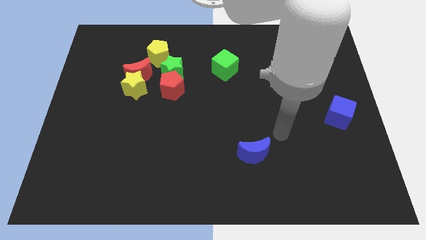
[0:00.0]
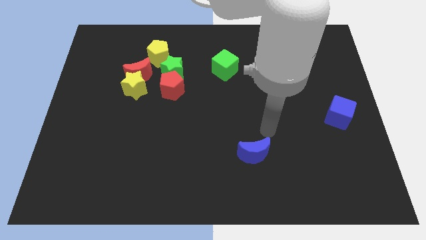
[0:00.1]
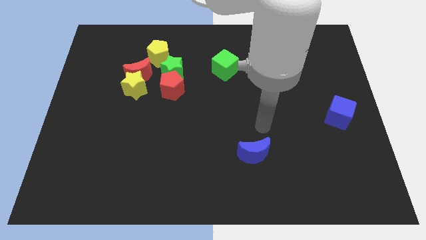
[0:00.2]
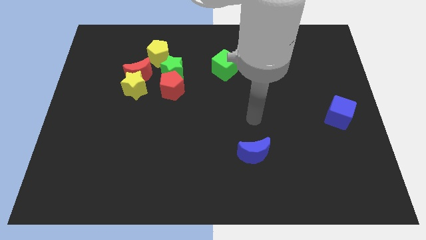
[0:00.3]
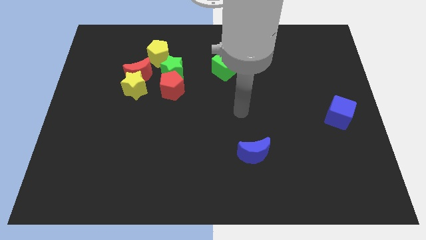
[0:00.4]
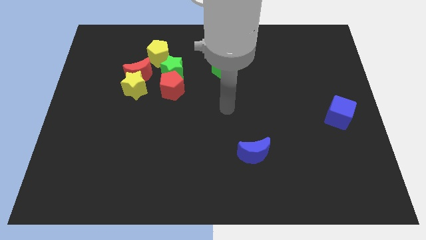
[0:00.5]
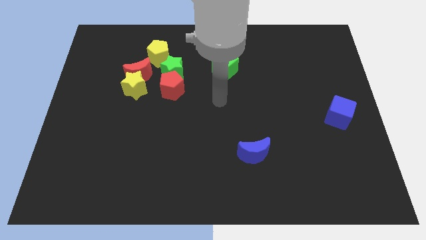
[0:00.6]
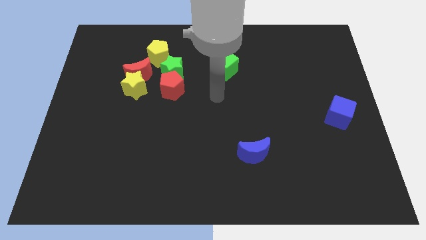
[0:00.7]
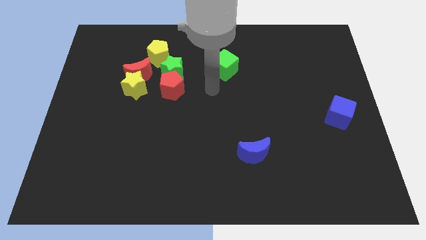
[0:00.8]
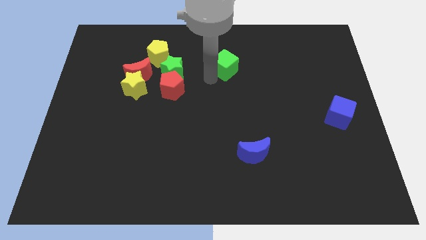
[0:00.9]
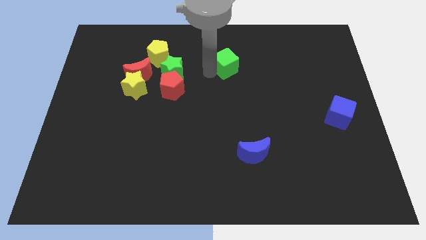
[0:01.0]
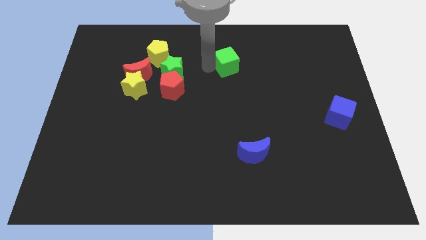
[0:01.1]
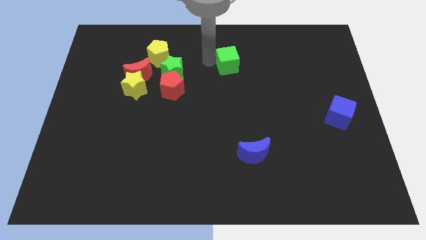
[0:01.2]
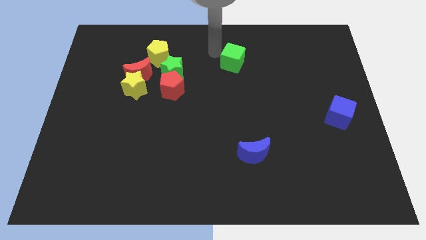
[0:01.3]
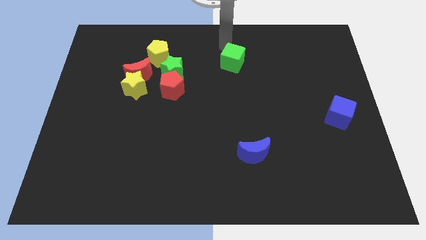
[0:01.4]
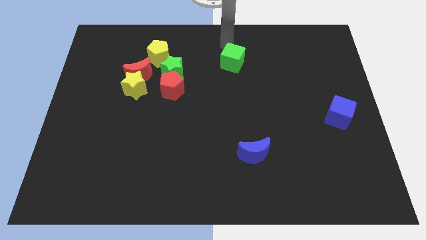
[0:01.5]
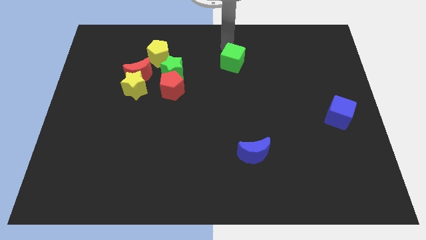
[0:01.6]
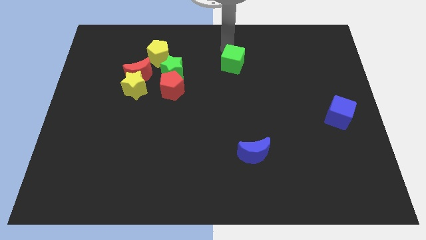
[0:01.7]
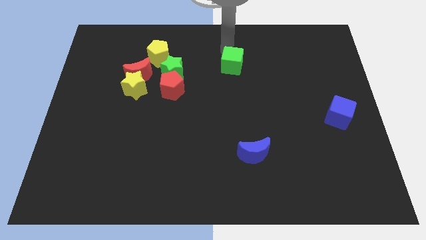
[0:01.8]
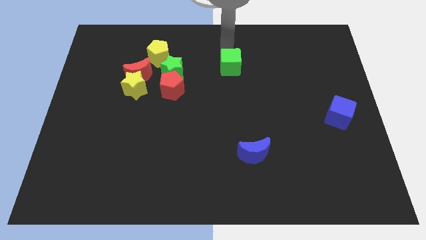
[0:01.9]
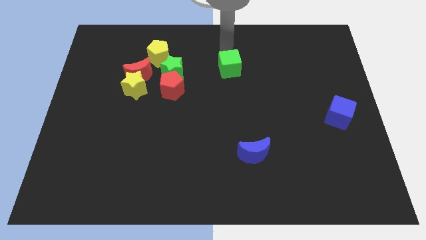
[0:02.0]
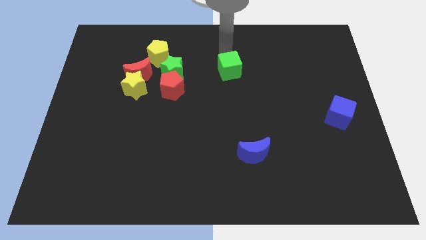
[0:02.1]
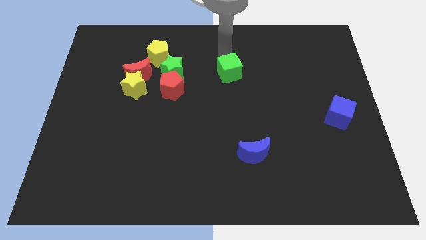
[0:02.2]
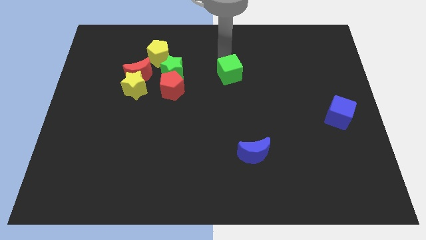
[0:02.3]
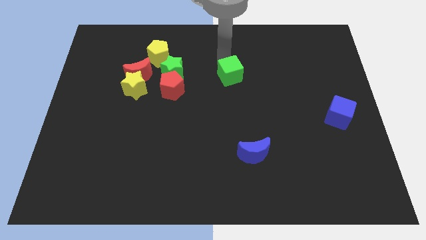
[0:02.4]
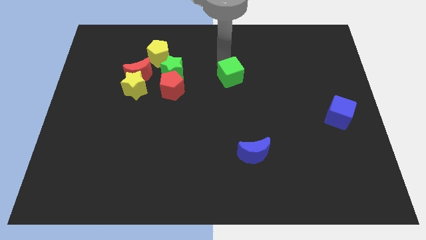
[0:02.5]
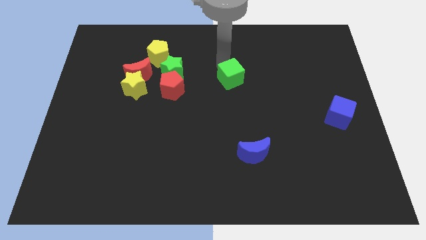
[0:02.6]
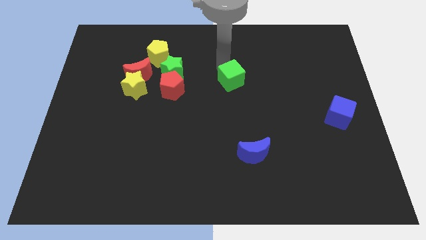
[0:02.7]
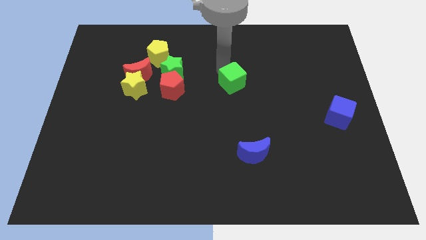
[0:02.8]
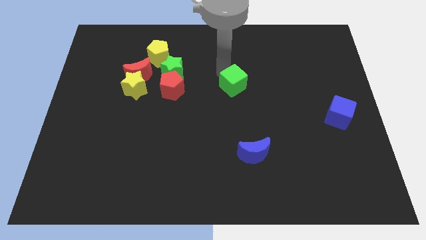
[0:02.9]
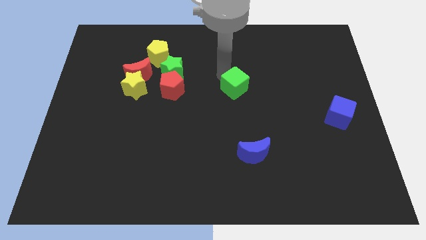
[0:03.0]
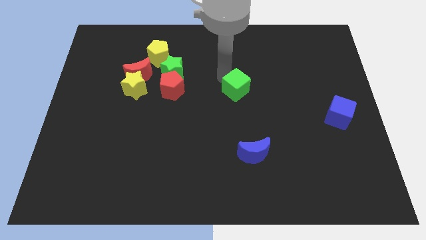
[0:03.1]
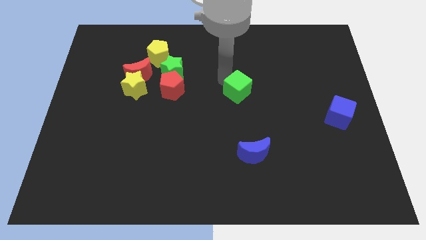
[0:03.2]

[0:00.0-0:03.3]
slide the green cube somewhat downwards and then to the right

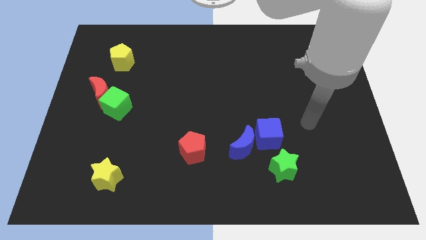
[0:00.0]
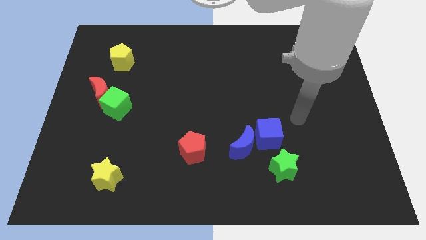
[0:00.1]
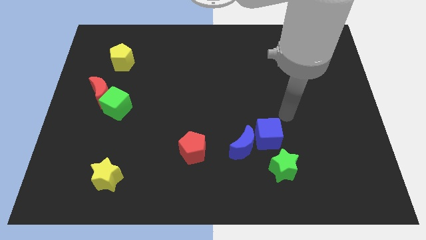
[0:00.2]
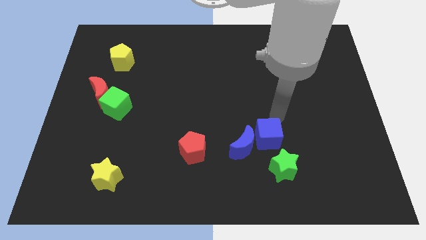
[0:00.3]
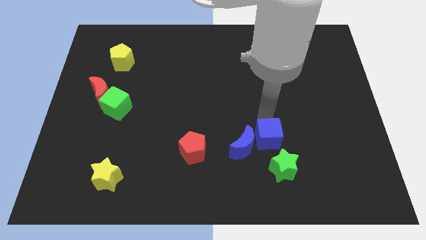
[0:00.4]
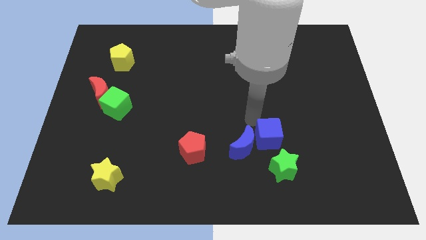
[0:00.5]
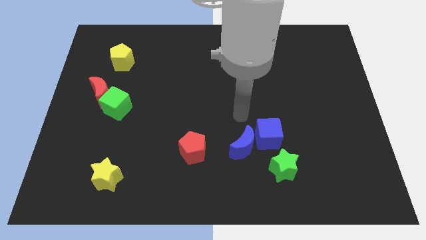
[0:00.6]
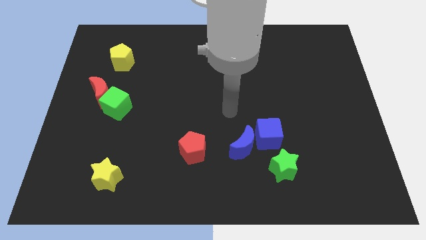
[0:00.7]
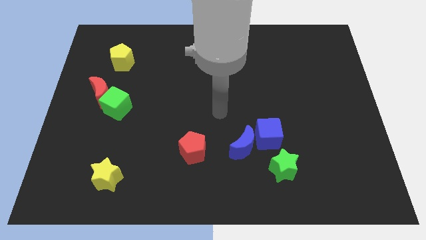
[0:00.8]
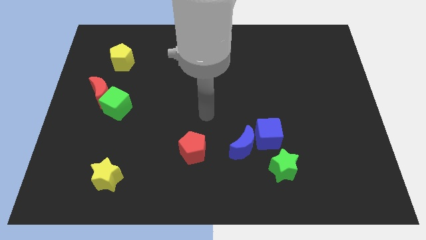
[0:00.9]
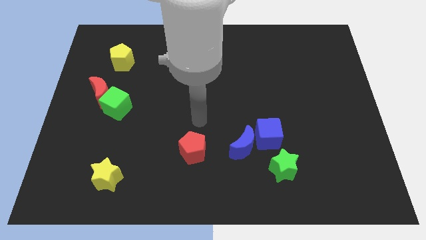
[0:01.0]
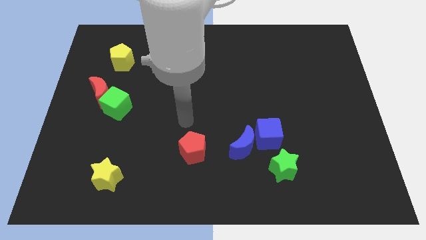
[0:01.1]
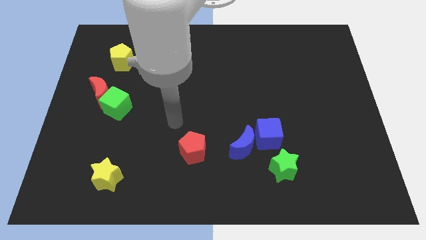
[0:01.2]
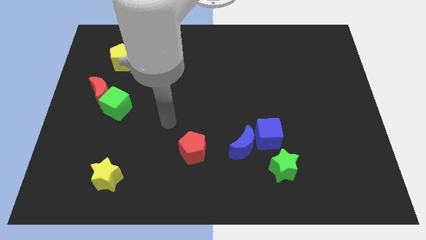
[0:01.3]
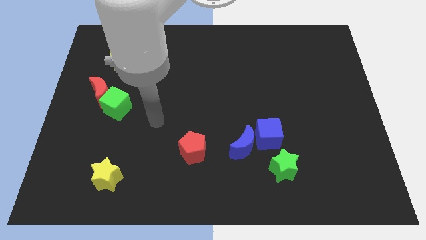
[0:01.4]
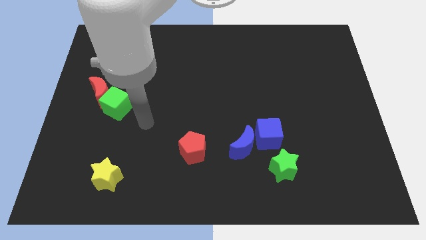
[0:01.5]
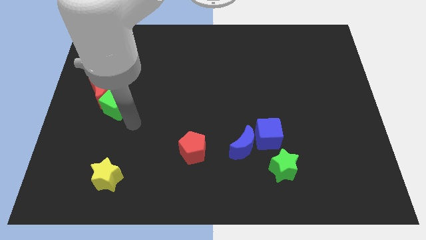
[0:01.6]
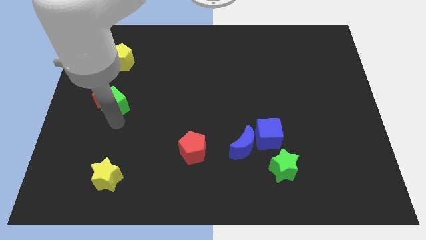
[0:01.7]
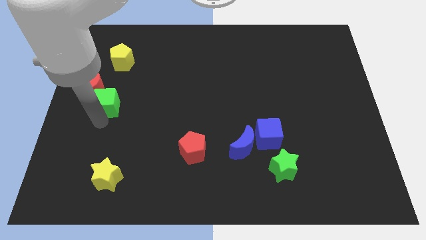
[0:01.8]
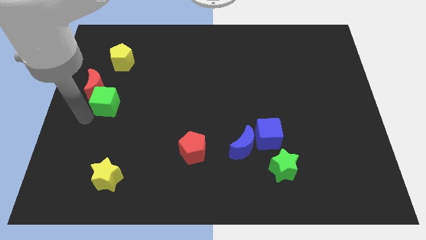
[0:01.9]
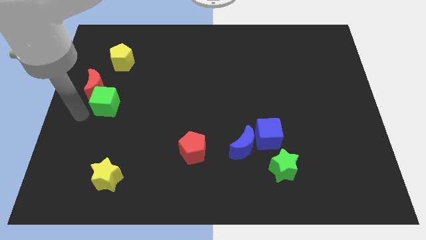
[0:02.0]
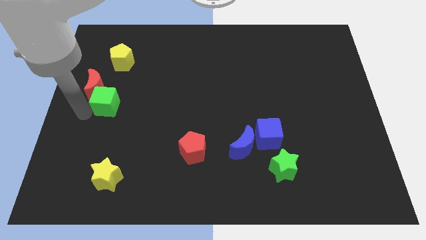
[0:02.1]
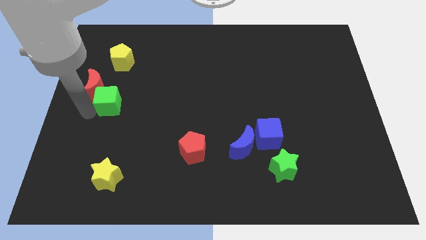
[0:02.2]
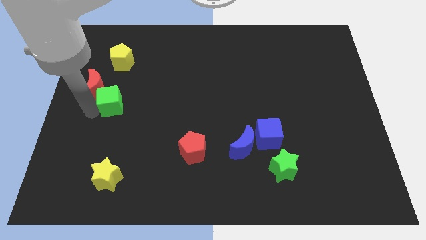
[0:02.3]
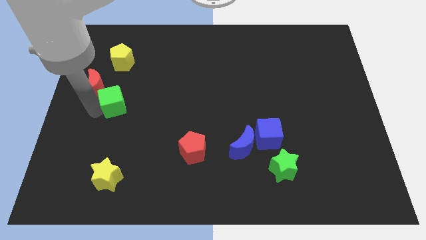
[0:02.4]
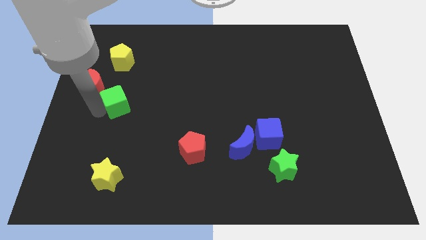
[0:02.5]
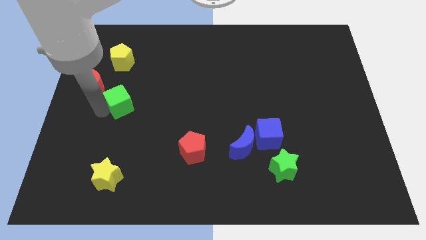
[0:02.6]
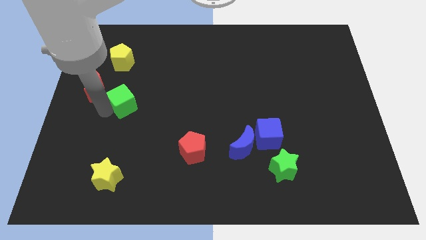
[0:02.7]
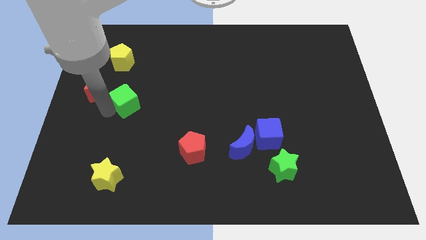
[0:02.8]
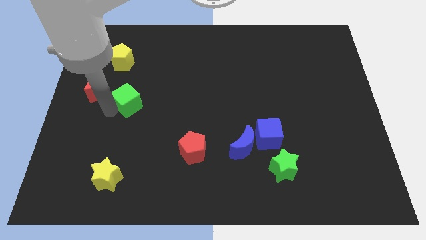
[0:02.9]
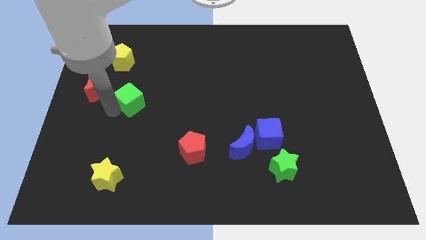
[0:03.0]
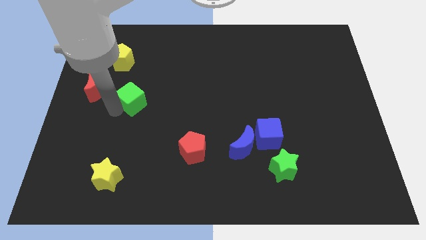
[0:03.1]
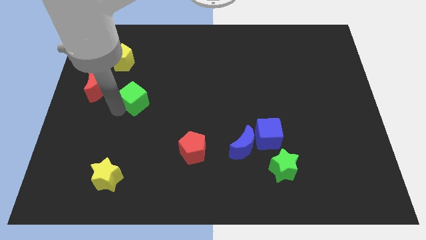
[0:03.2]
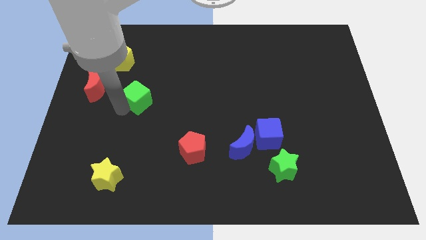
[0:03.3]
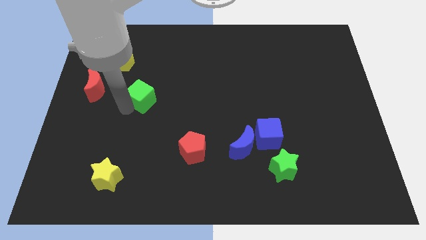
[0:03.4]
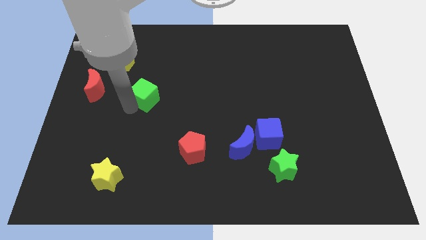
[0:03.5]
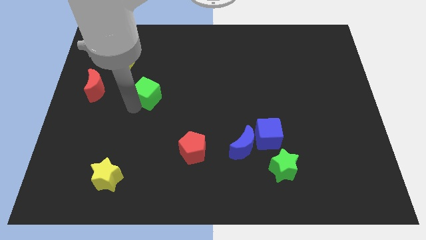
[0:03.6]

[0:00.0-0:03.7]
slightly push the green cube up and then right

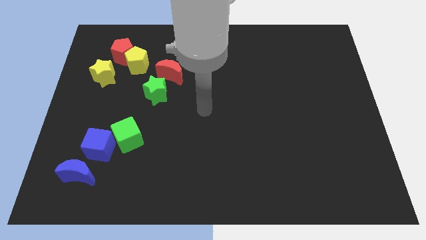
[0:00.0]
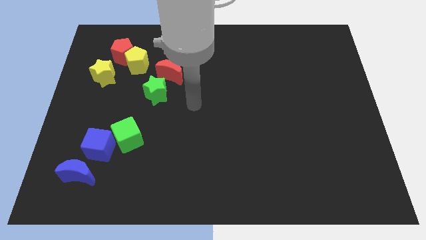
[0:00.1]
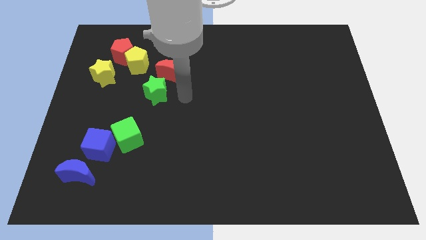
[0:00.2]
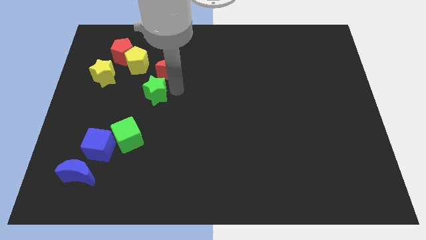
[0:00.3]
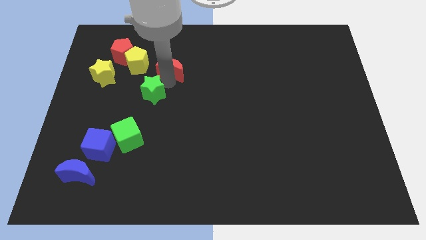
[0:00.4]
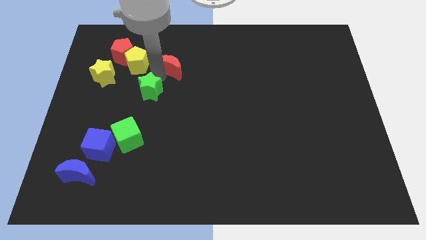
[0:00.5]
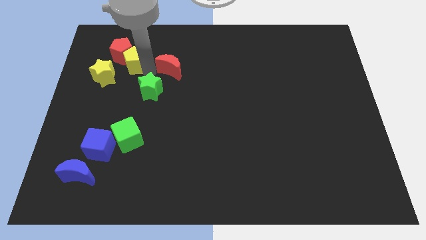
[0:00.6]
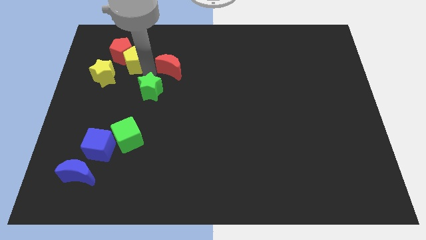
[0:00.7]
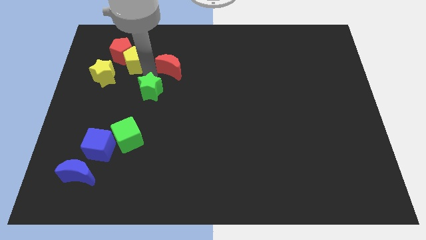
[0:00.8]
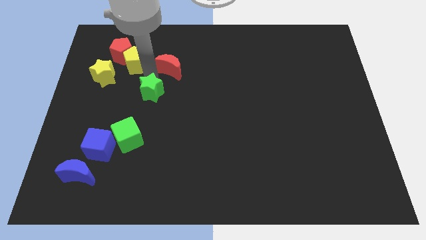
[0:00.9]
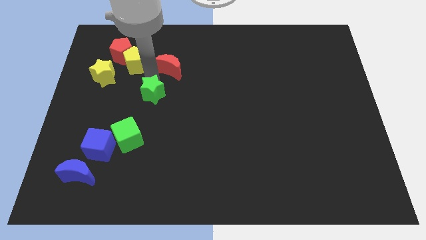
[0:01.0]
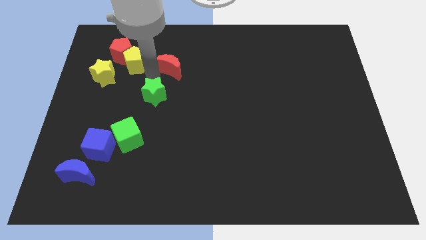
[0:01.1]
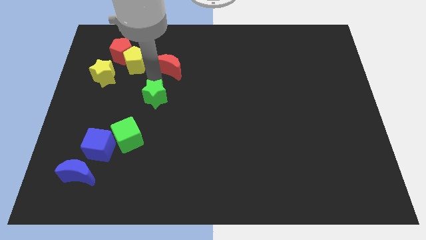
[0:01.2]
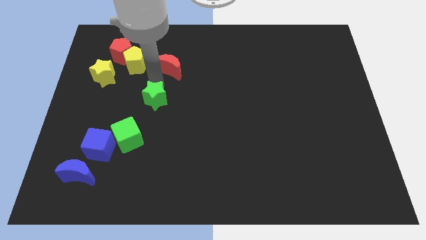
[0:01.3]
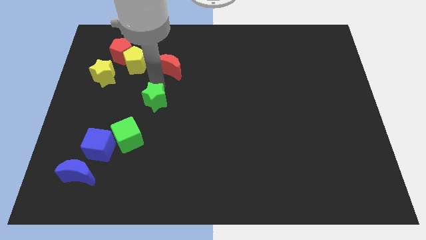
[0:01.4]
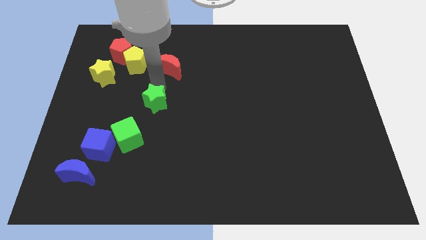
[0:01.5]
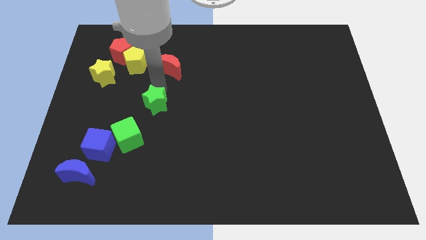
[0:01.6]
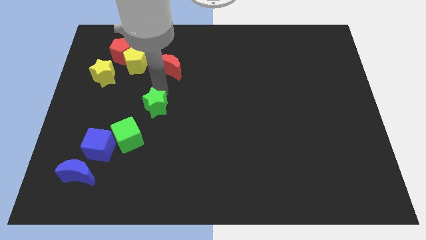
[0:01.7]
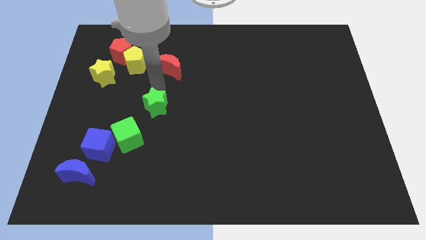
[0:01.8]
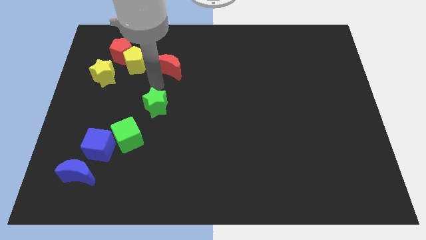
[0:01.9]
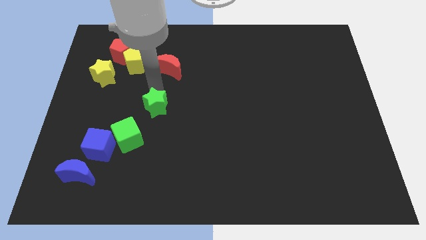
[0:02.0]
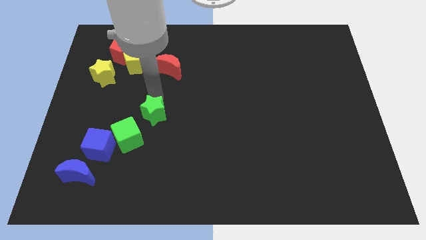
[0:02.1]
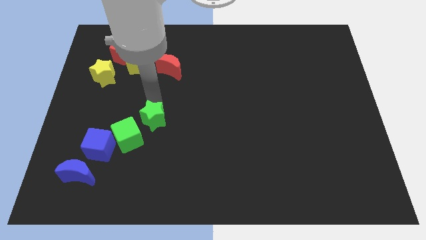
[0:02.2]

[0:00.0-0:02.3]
move the green star somewhat down
